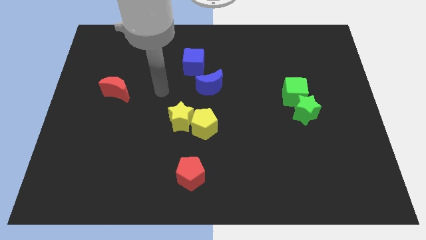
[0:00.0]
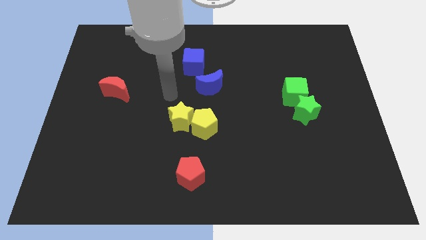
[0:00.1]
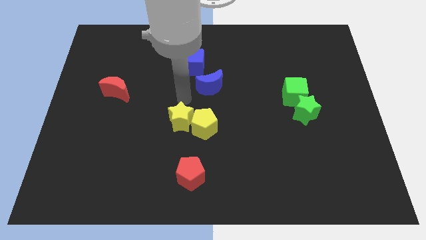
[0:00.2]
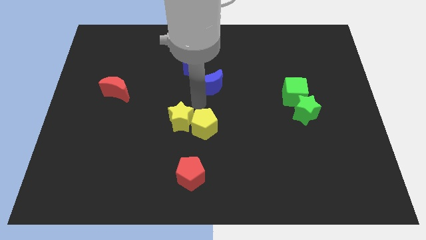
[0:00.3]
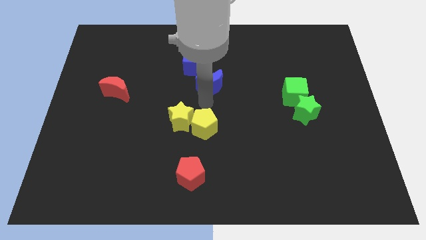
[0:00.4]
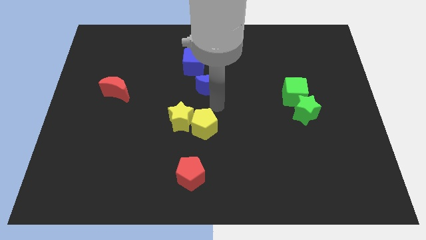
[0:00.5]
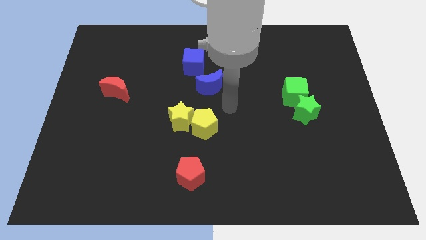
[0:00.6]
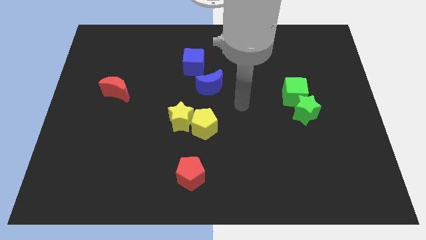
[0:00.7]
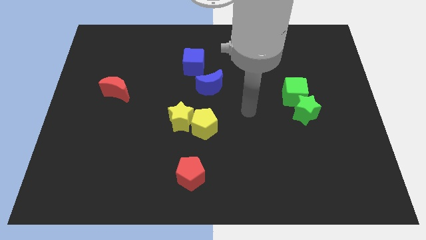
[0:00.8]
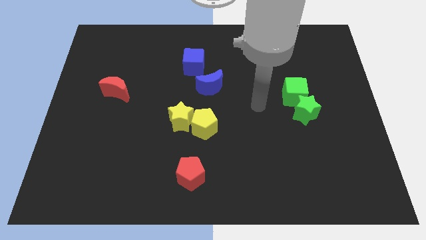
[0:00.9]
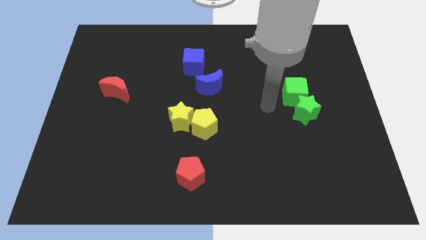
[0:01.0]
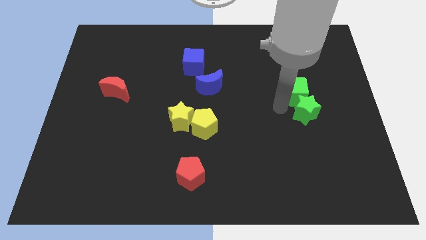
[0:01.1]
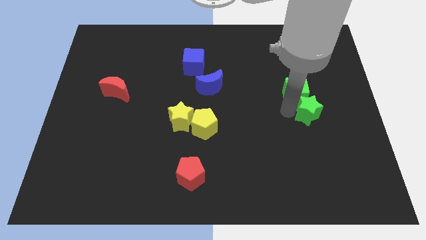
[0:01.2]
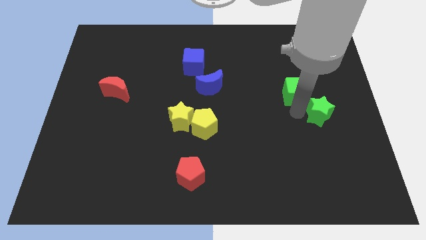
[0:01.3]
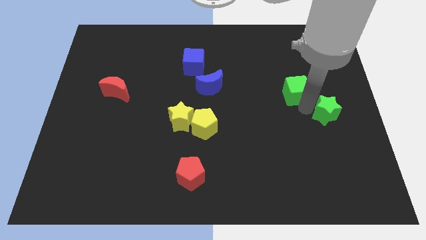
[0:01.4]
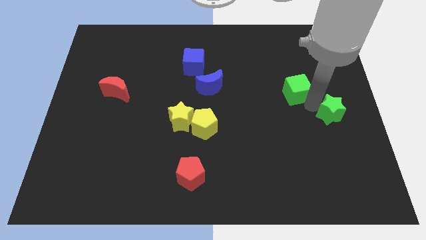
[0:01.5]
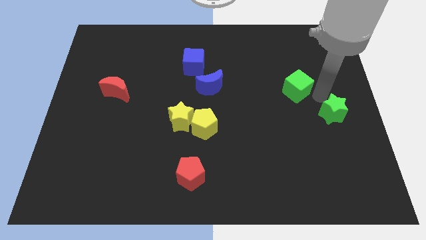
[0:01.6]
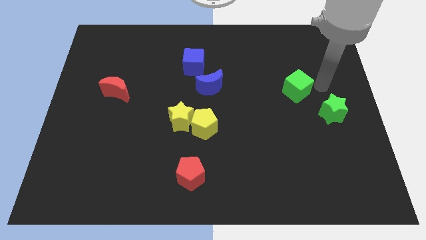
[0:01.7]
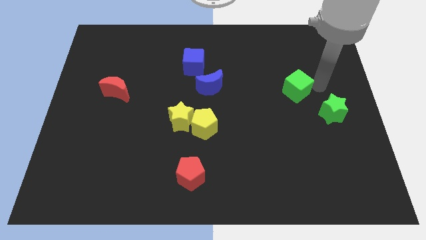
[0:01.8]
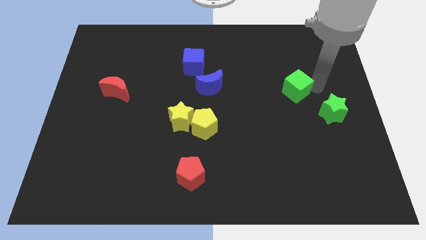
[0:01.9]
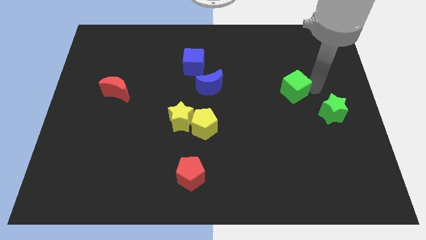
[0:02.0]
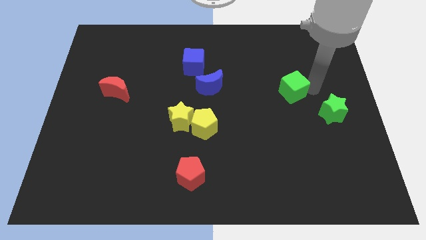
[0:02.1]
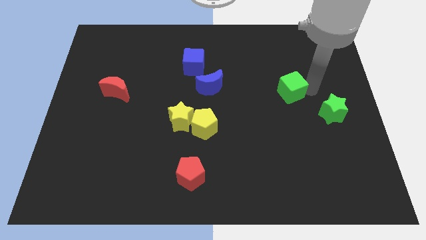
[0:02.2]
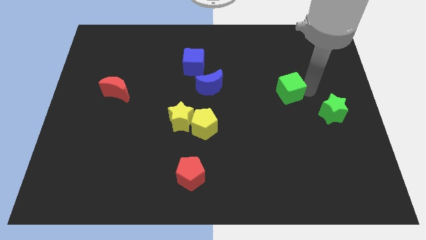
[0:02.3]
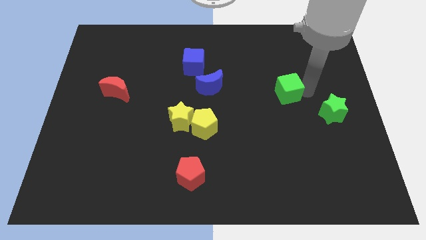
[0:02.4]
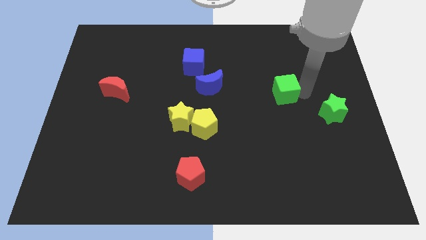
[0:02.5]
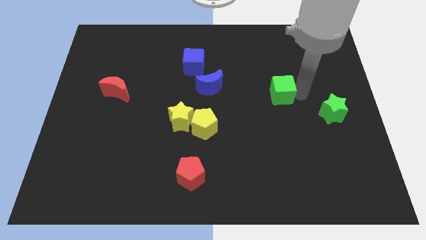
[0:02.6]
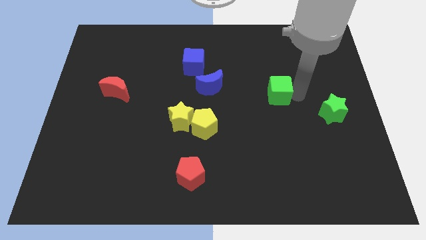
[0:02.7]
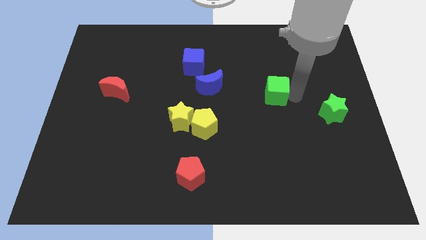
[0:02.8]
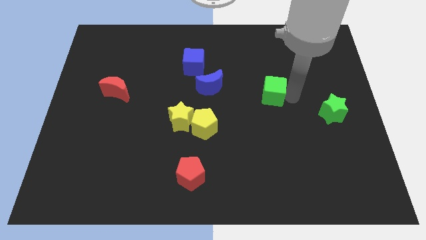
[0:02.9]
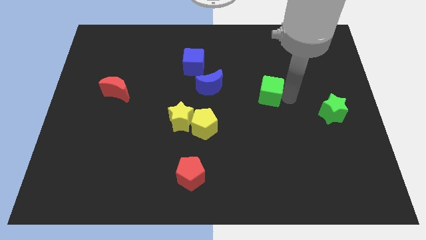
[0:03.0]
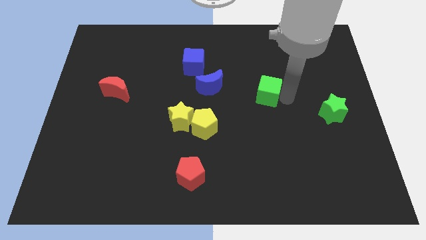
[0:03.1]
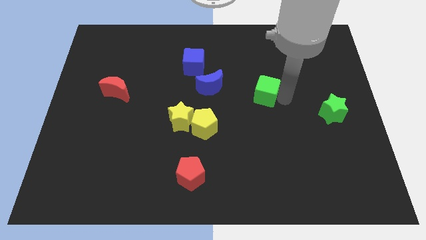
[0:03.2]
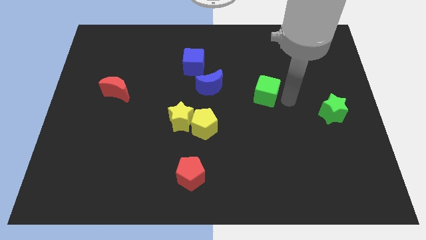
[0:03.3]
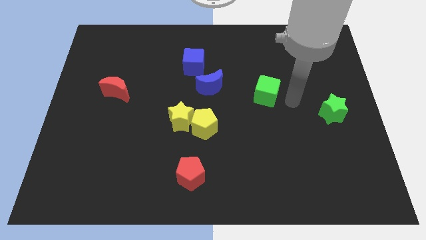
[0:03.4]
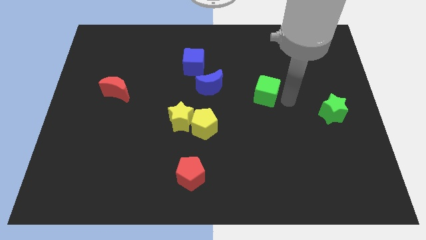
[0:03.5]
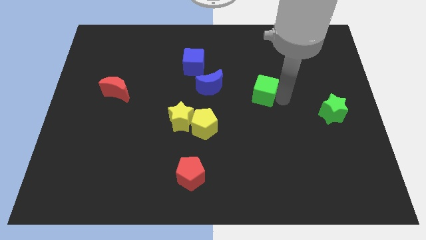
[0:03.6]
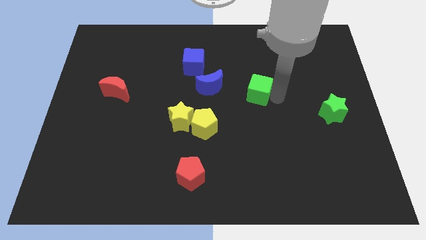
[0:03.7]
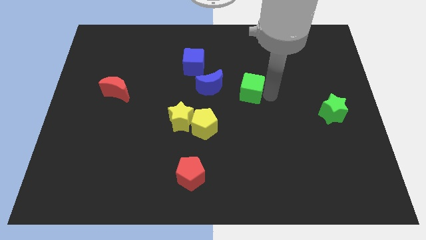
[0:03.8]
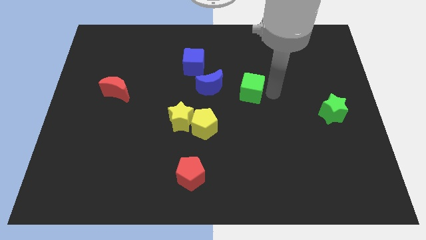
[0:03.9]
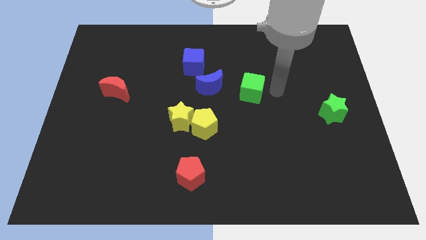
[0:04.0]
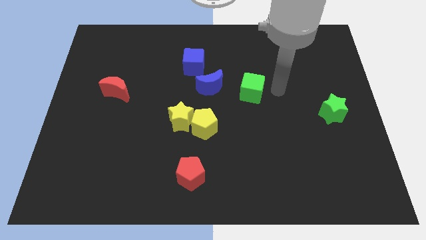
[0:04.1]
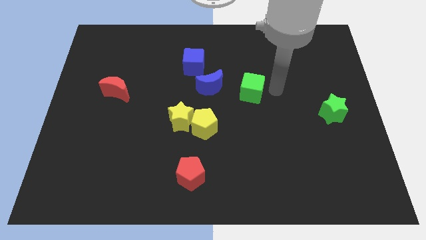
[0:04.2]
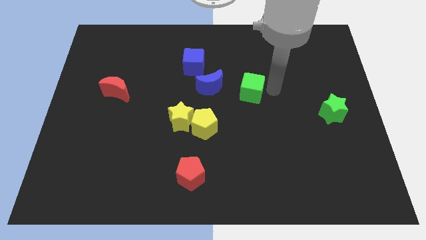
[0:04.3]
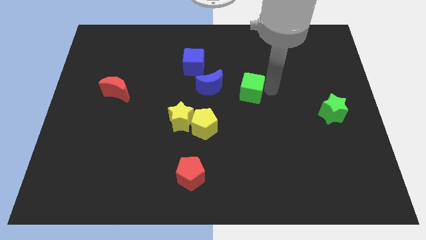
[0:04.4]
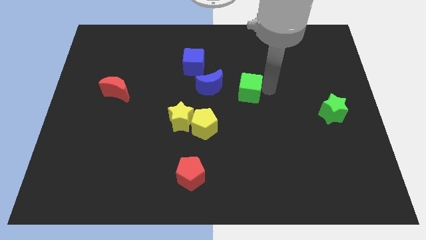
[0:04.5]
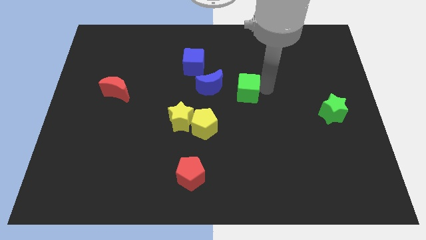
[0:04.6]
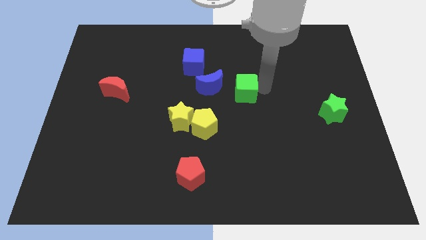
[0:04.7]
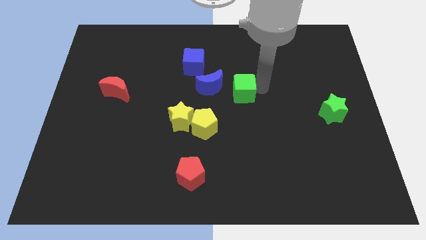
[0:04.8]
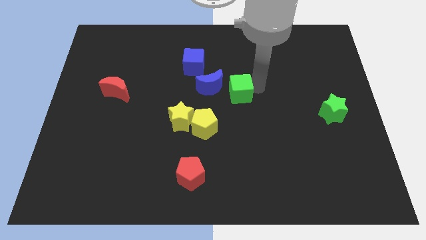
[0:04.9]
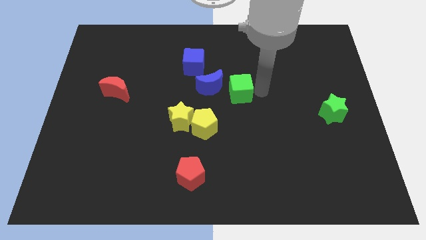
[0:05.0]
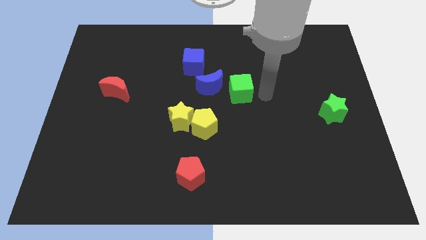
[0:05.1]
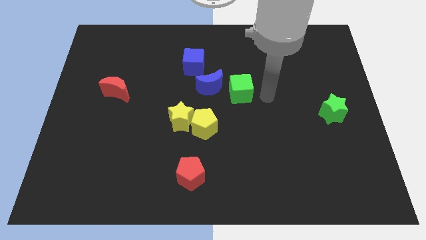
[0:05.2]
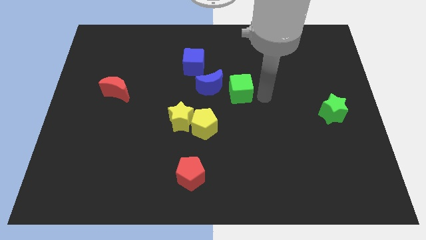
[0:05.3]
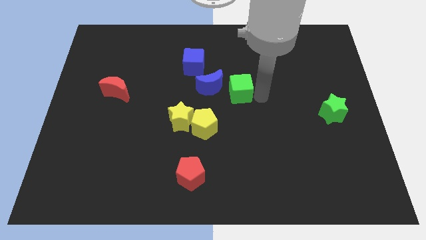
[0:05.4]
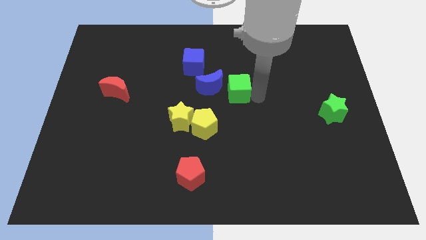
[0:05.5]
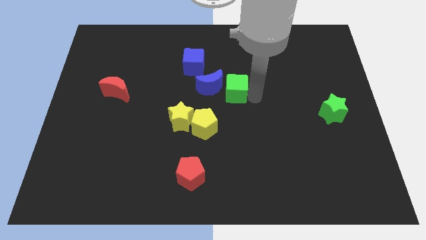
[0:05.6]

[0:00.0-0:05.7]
put the green cube towards the blue moon
